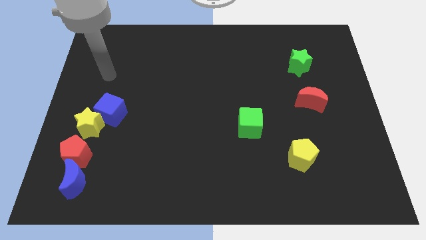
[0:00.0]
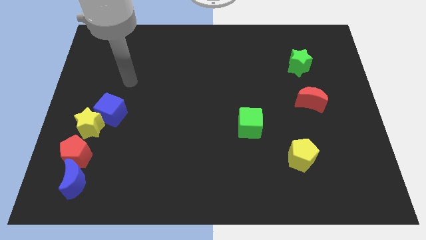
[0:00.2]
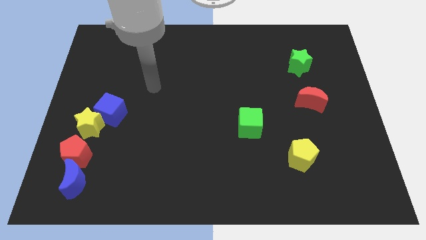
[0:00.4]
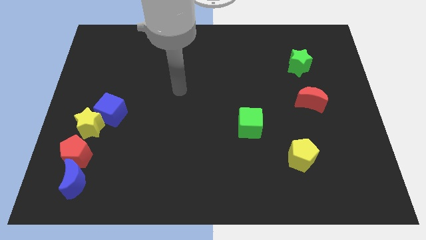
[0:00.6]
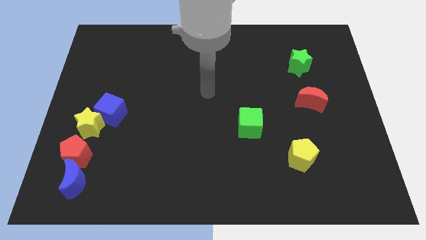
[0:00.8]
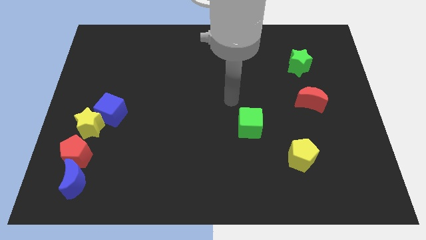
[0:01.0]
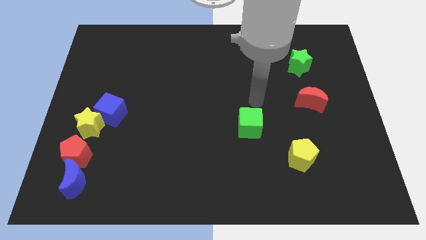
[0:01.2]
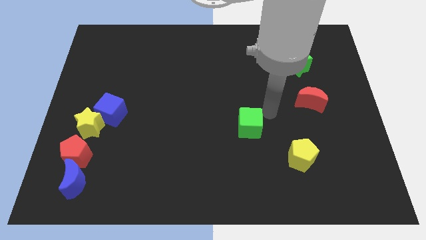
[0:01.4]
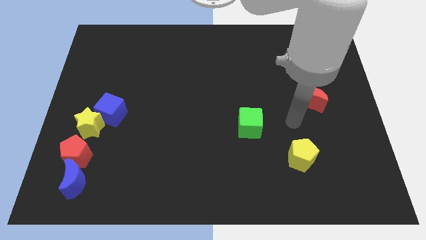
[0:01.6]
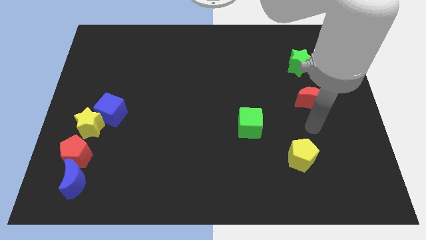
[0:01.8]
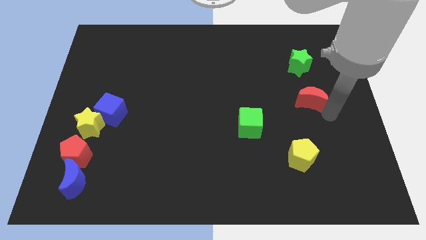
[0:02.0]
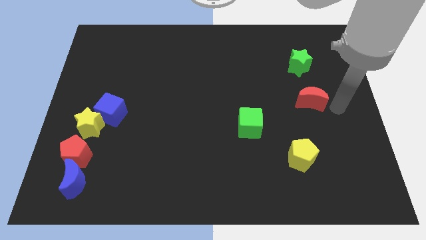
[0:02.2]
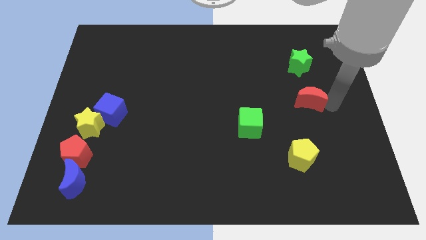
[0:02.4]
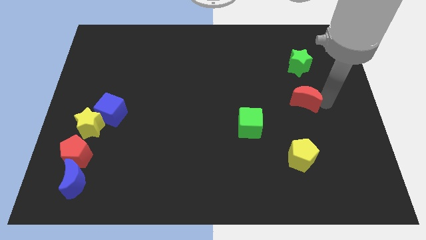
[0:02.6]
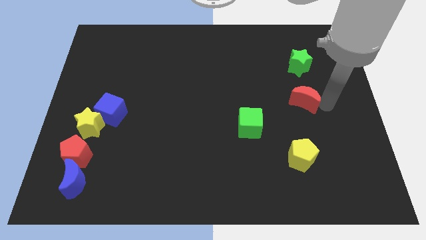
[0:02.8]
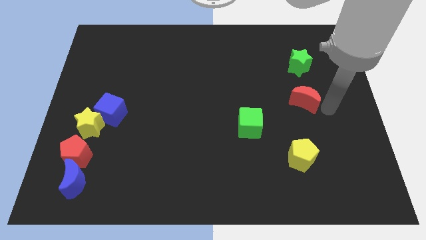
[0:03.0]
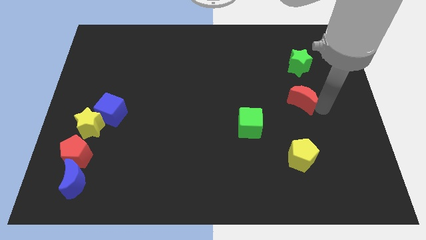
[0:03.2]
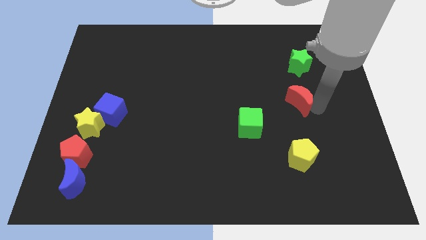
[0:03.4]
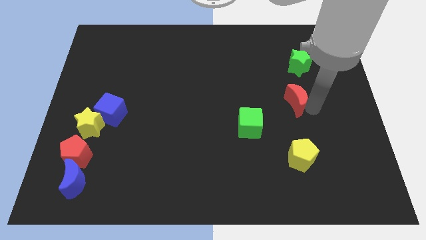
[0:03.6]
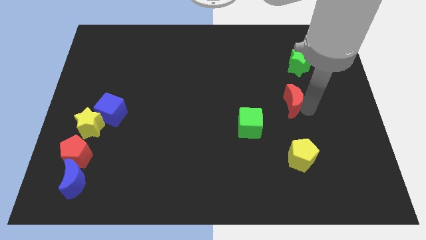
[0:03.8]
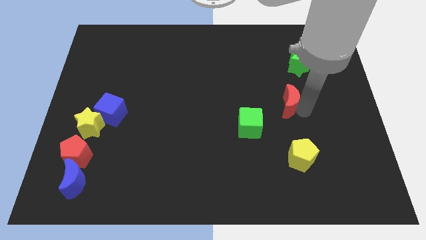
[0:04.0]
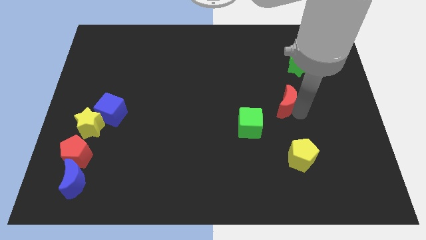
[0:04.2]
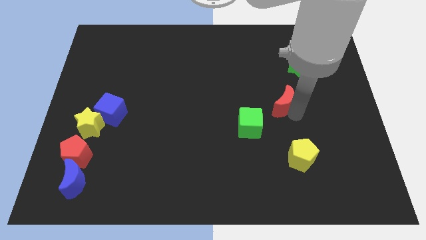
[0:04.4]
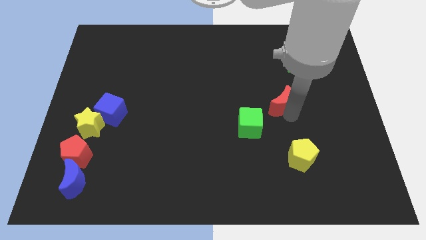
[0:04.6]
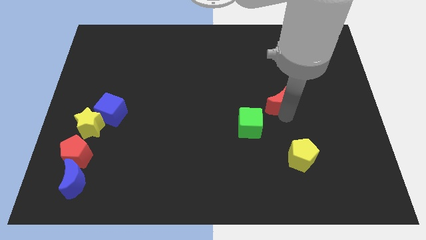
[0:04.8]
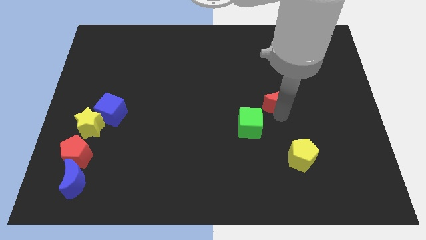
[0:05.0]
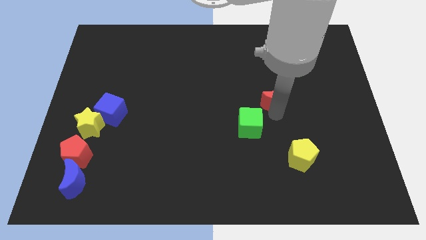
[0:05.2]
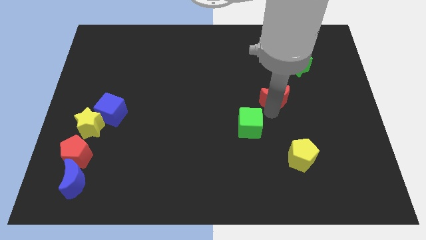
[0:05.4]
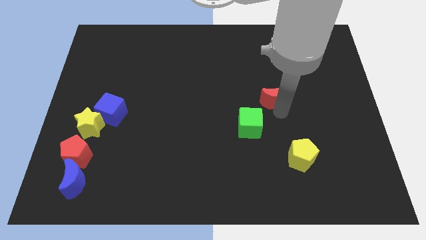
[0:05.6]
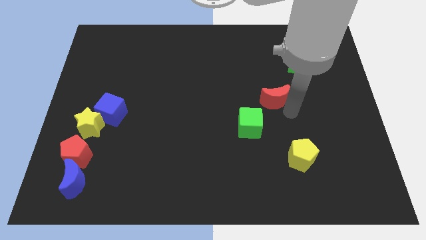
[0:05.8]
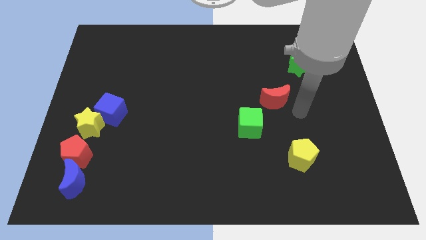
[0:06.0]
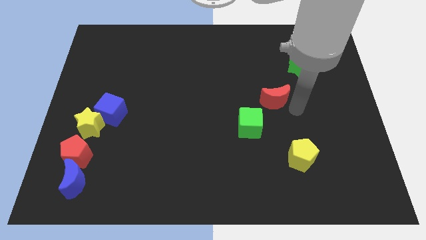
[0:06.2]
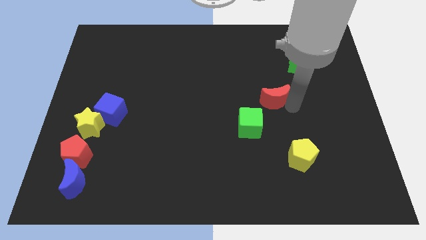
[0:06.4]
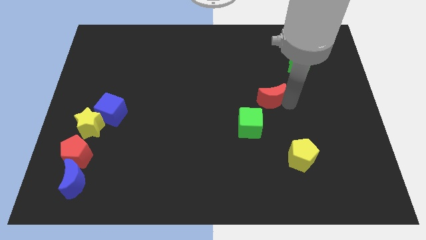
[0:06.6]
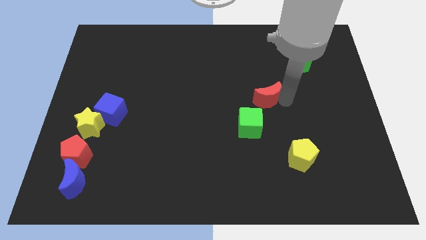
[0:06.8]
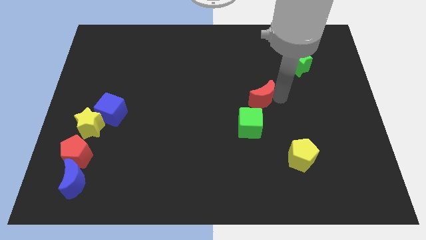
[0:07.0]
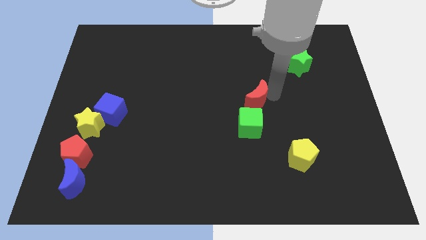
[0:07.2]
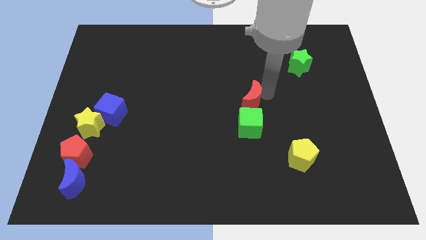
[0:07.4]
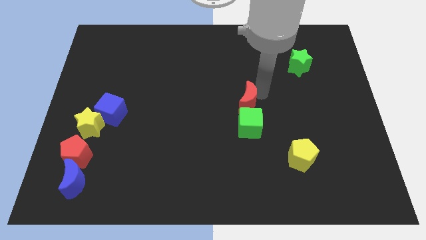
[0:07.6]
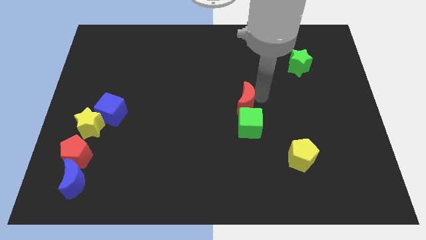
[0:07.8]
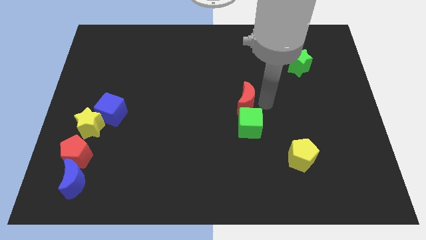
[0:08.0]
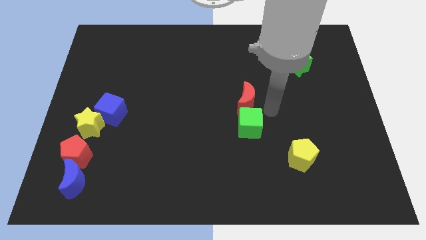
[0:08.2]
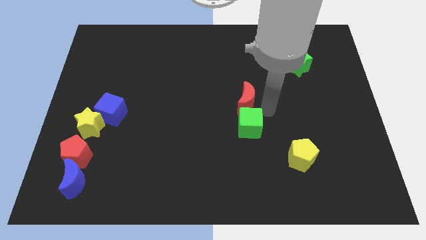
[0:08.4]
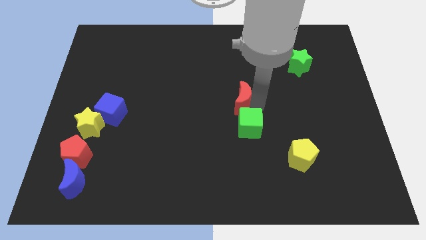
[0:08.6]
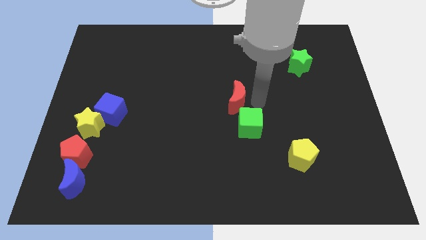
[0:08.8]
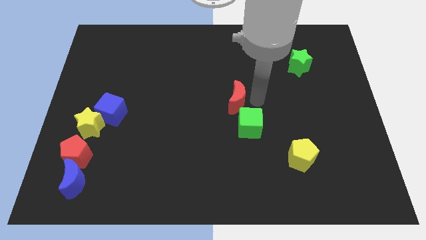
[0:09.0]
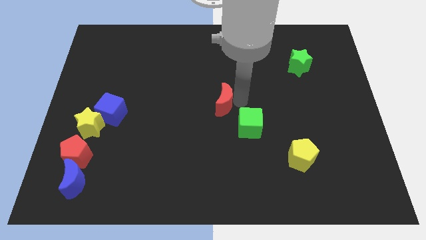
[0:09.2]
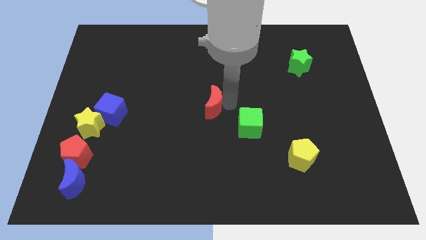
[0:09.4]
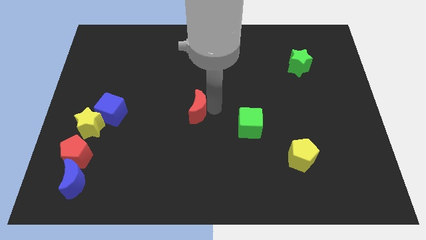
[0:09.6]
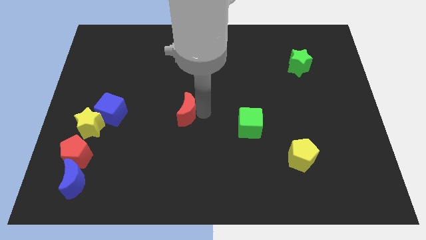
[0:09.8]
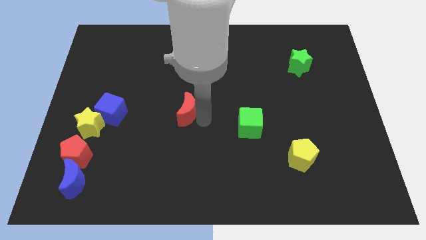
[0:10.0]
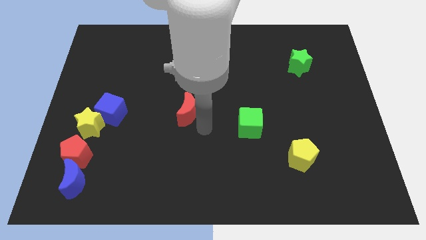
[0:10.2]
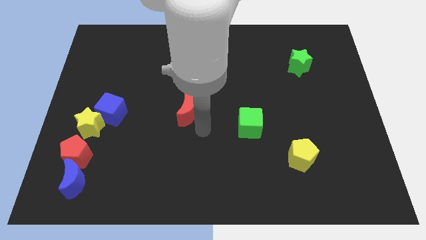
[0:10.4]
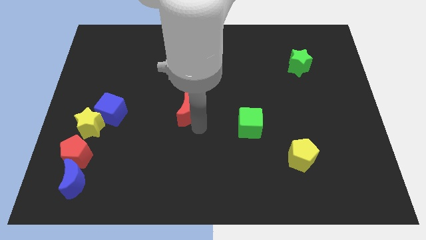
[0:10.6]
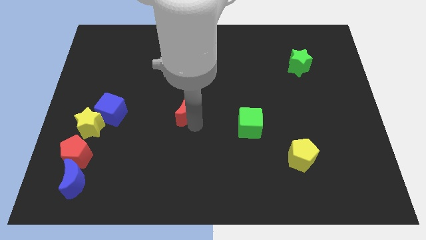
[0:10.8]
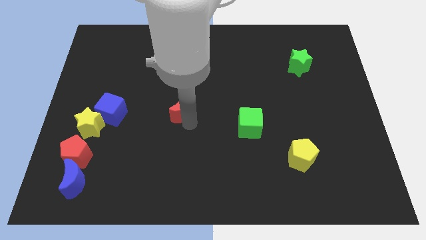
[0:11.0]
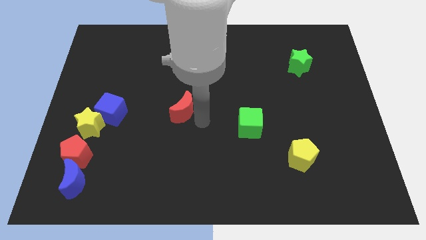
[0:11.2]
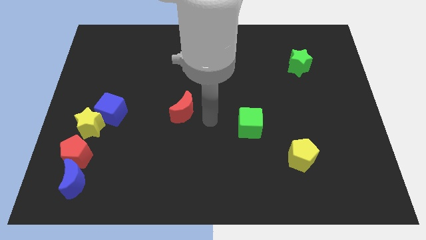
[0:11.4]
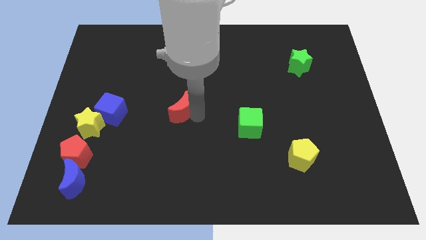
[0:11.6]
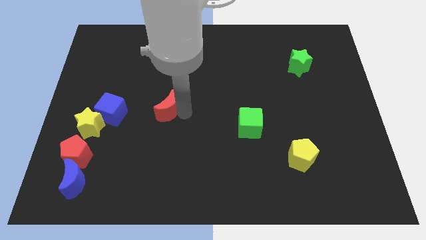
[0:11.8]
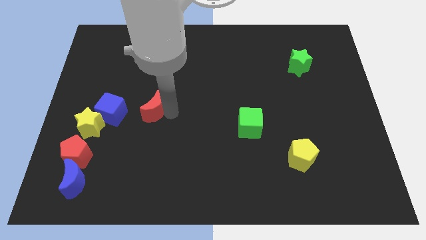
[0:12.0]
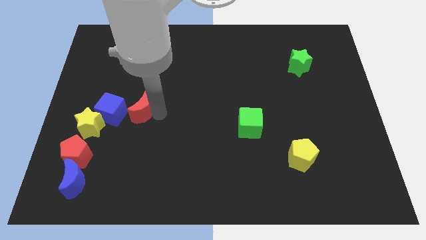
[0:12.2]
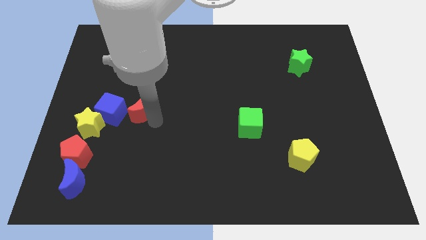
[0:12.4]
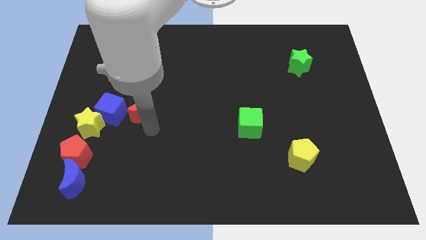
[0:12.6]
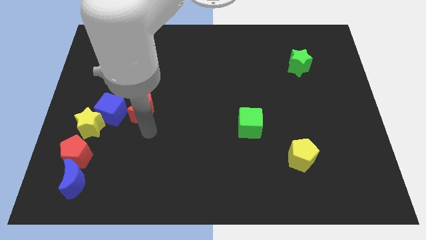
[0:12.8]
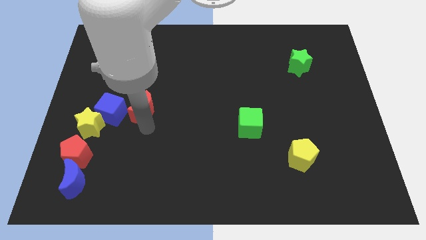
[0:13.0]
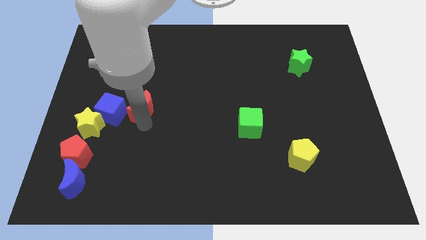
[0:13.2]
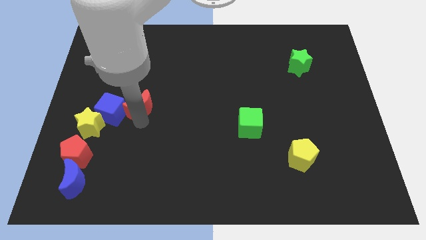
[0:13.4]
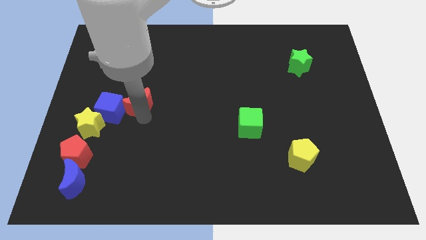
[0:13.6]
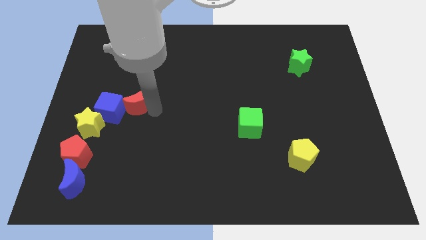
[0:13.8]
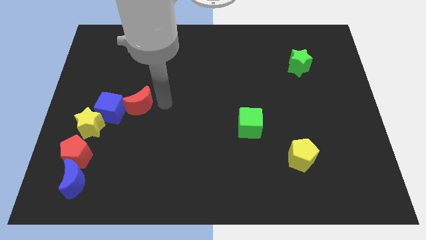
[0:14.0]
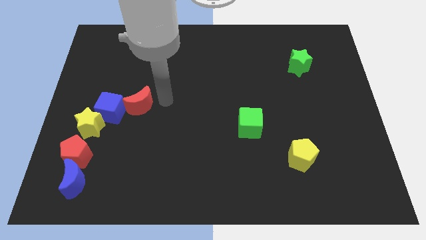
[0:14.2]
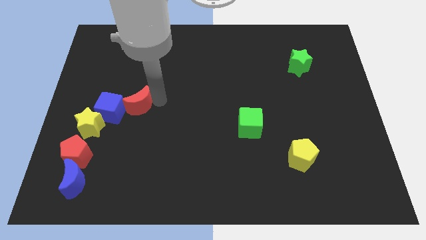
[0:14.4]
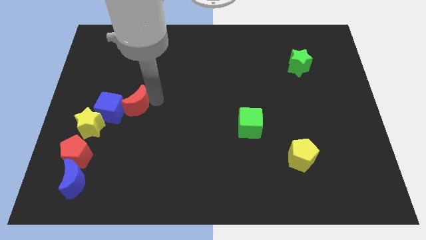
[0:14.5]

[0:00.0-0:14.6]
put the red moon next to the blue cube
